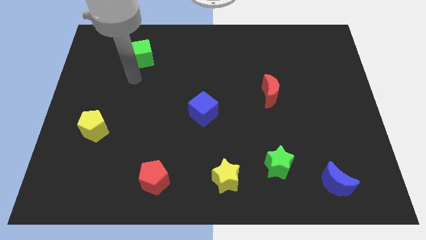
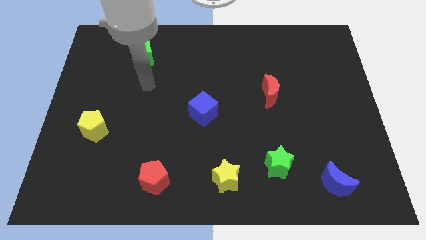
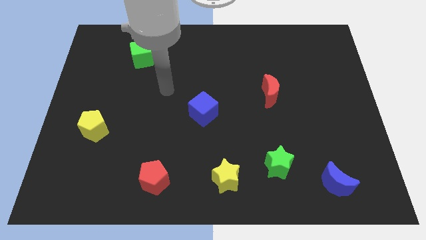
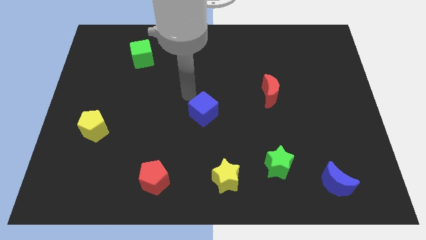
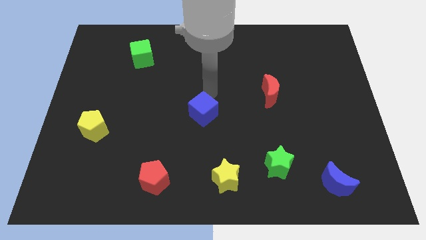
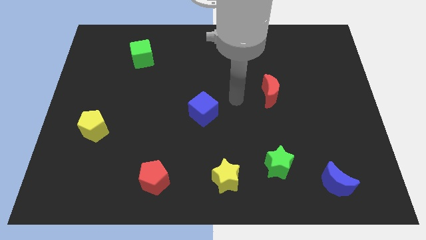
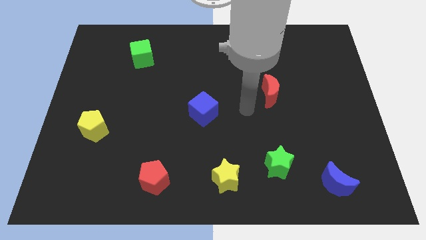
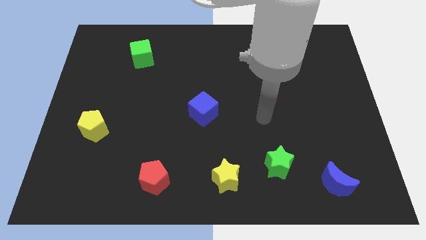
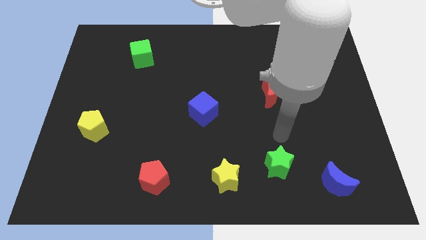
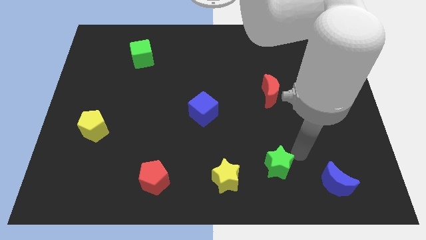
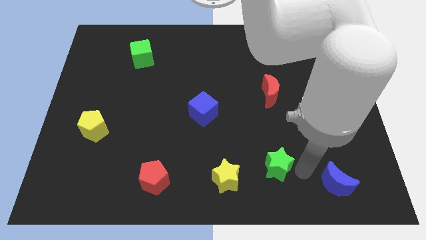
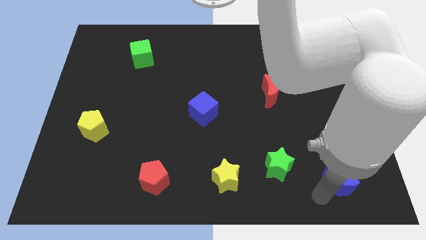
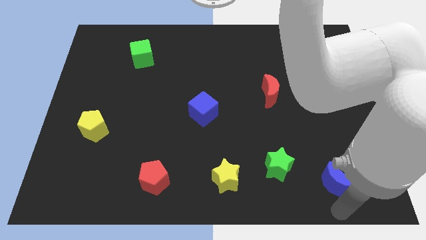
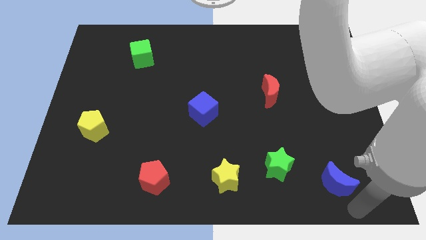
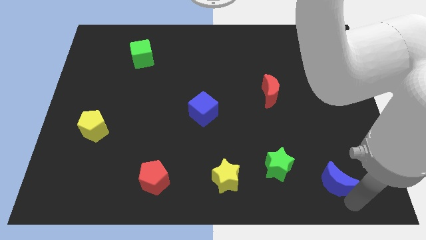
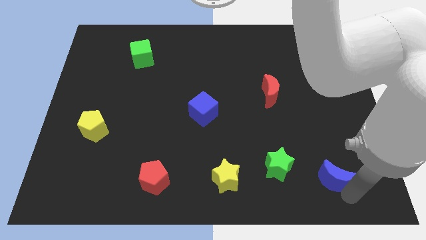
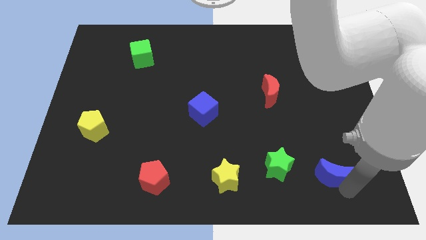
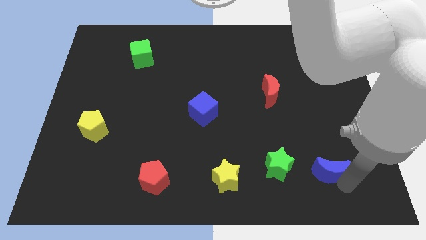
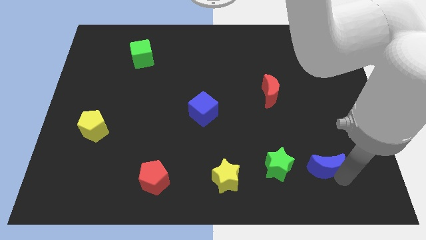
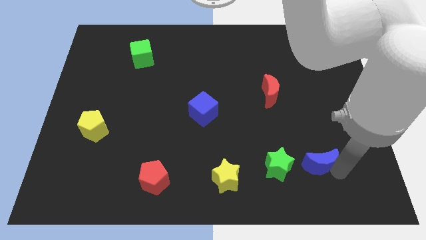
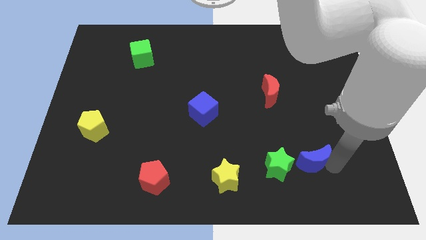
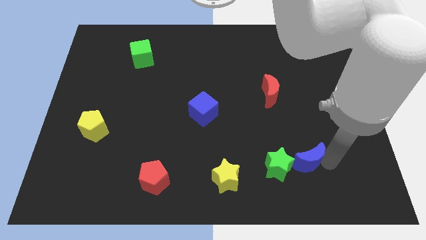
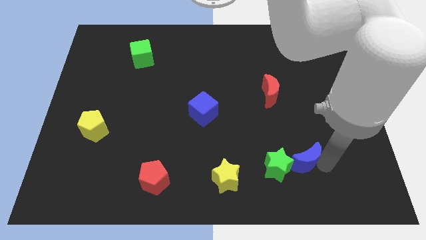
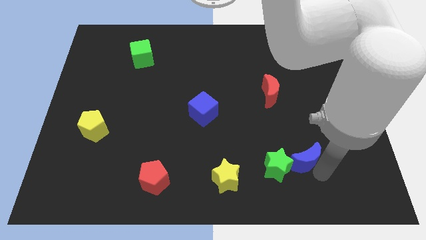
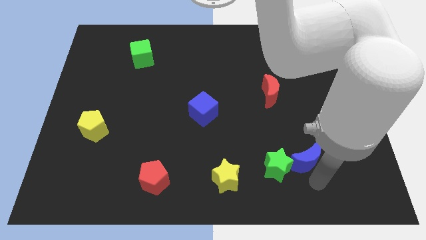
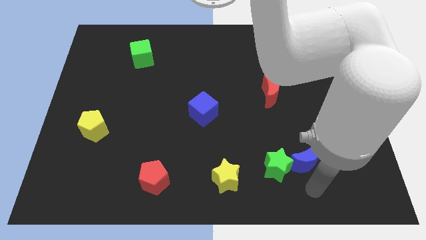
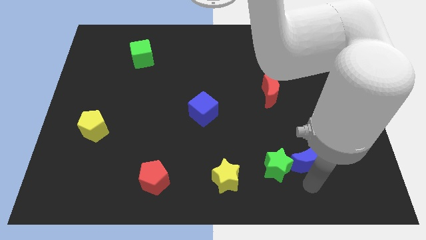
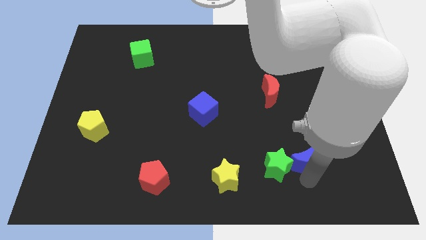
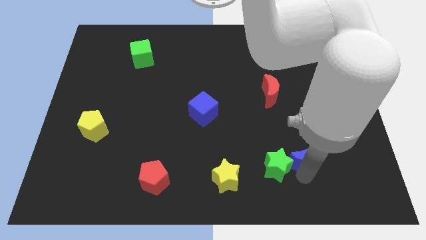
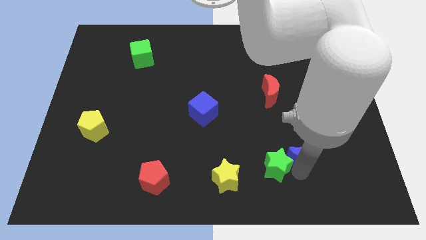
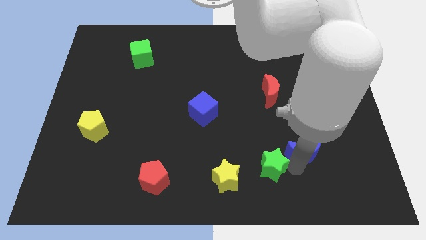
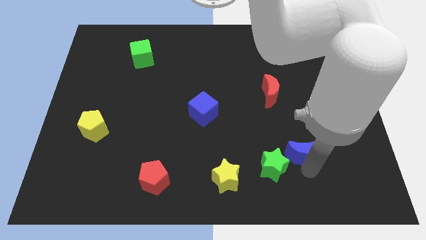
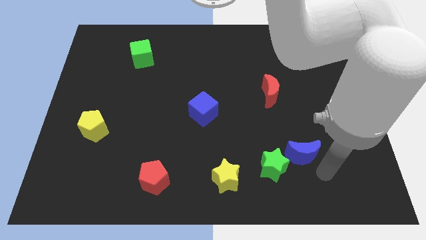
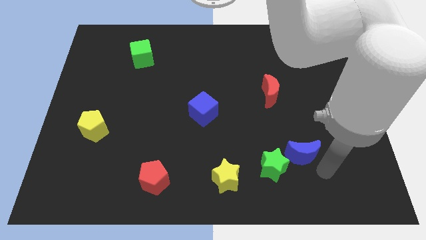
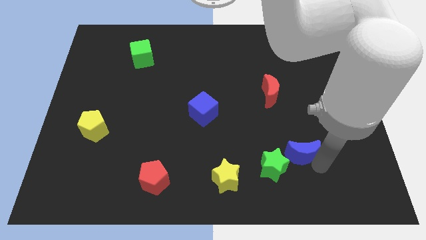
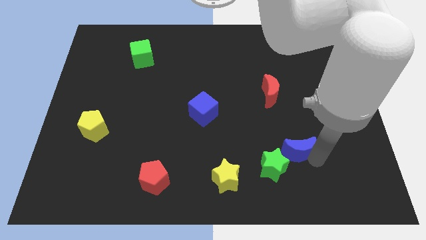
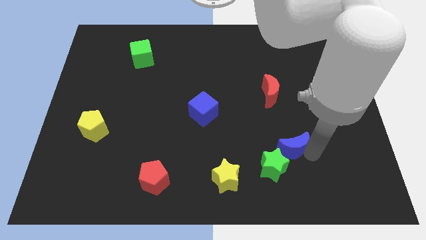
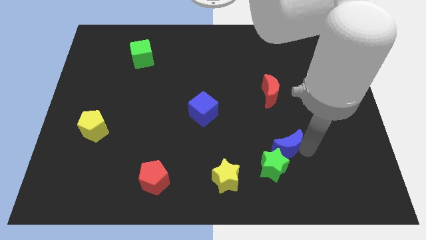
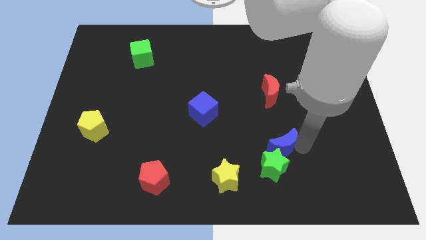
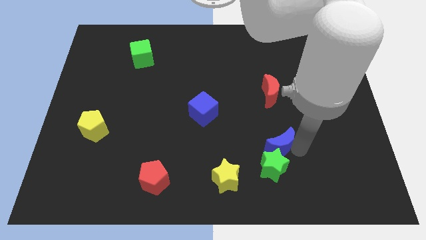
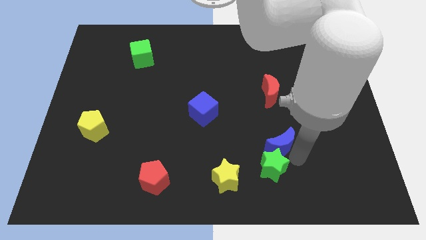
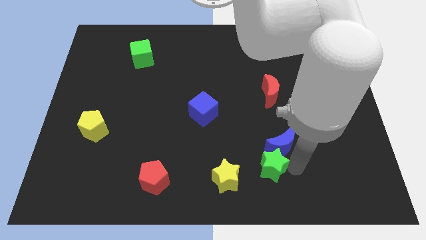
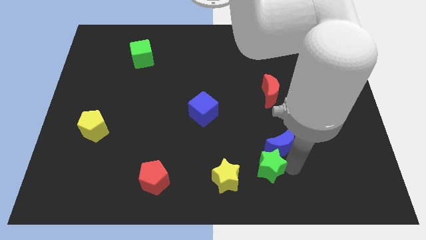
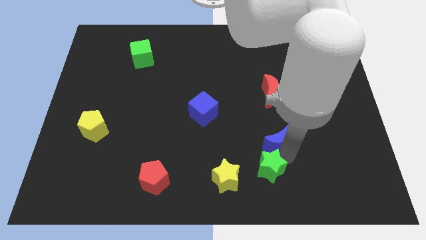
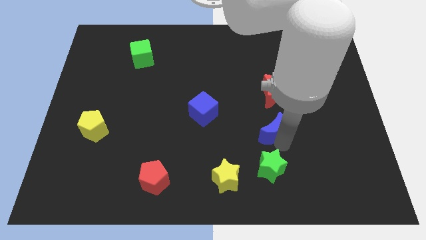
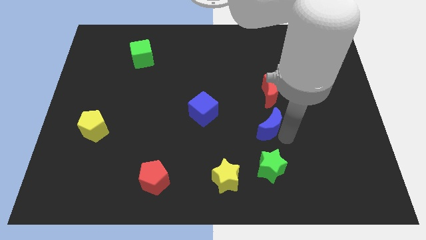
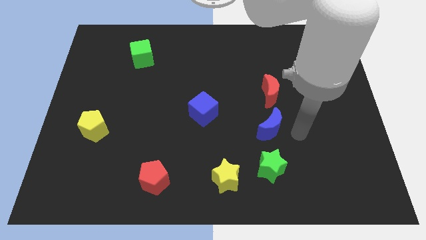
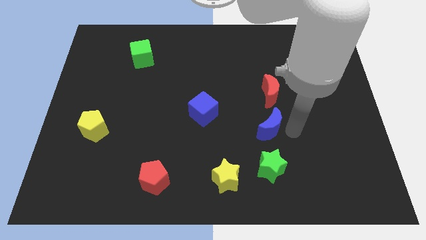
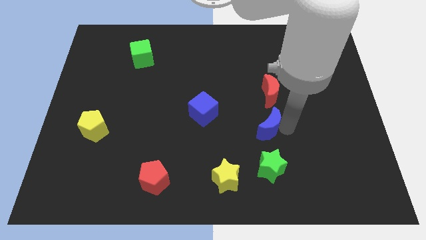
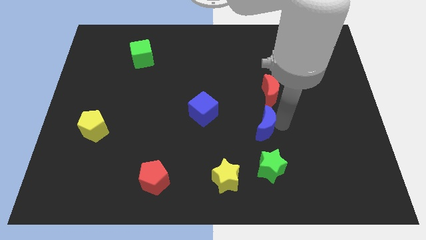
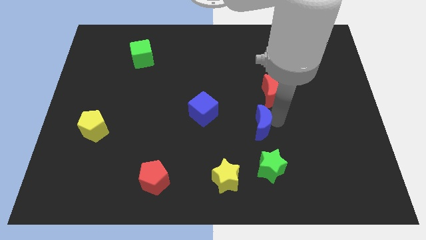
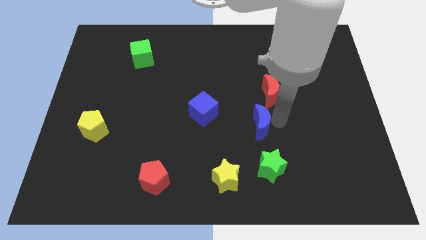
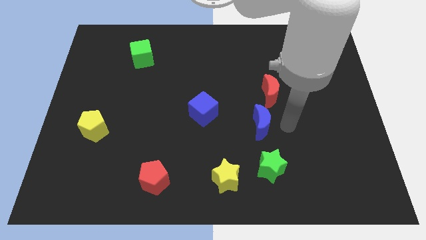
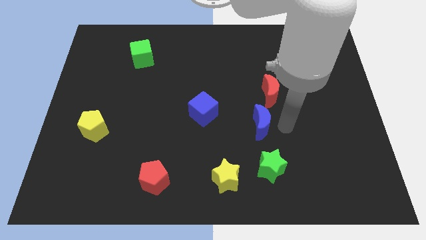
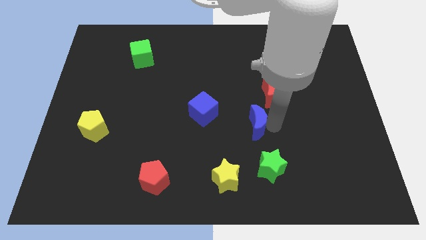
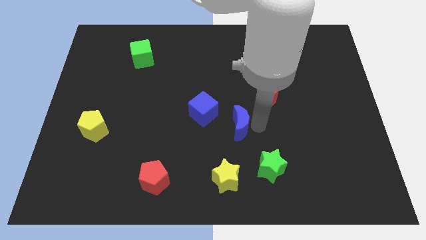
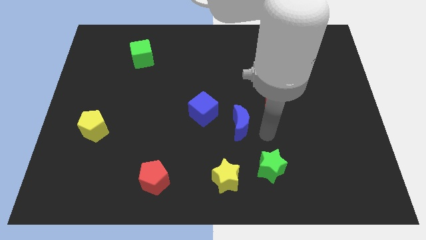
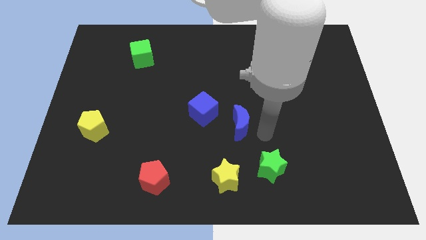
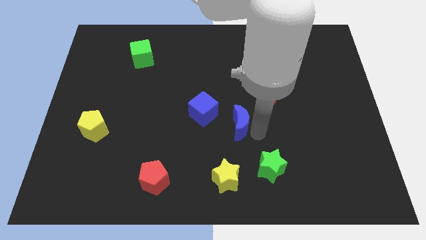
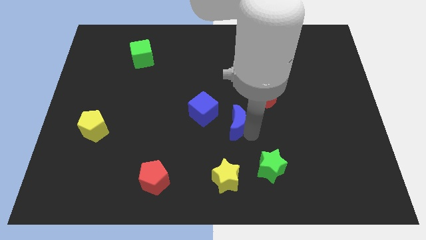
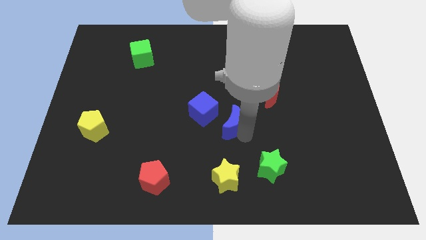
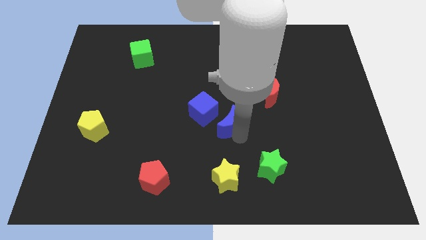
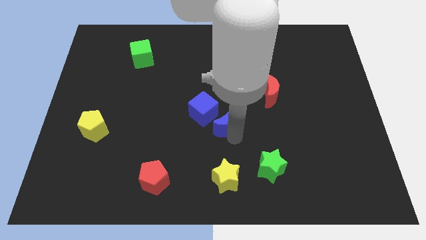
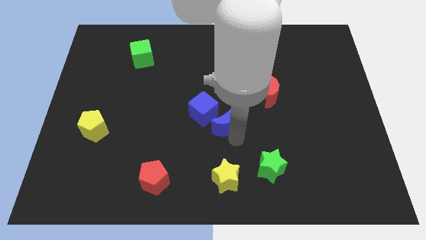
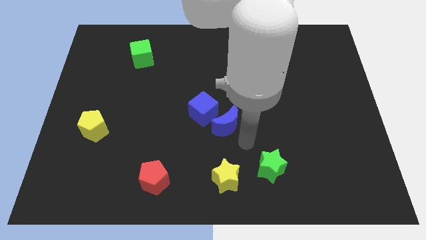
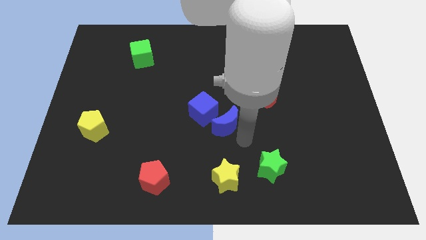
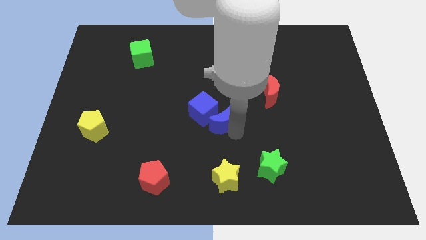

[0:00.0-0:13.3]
slide the blue moon next to the blue cube

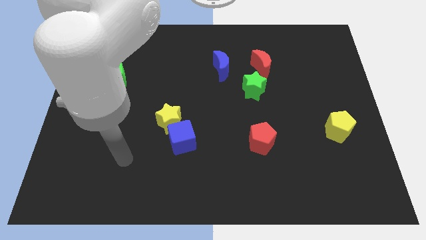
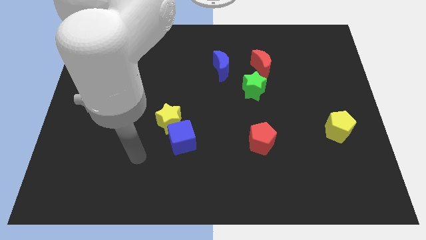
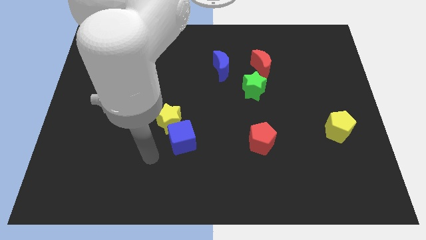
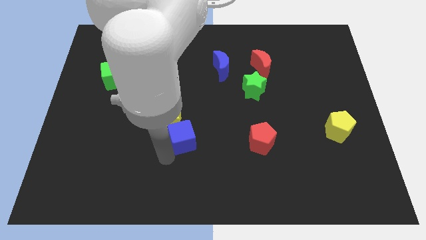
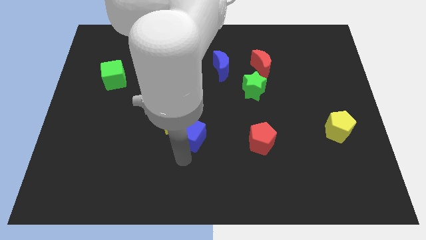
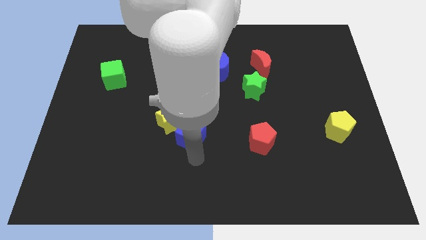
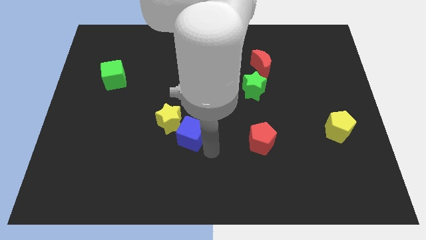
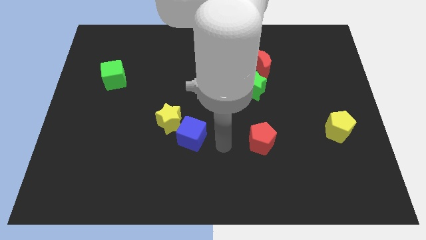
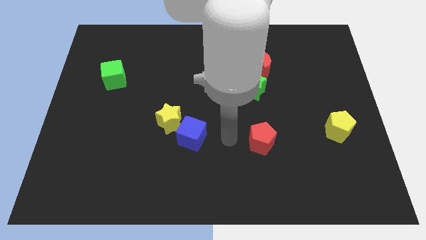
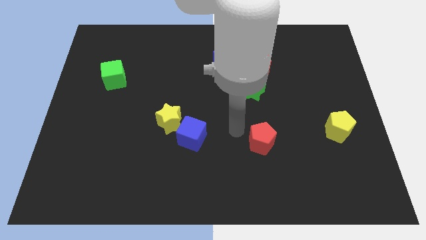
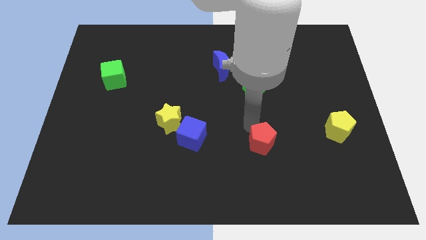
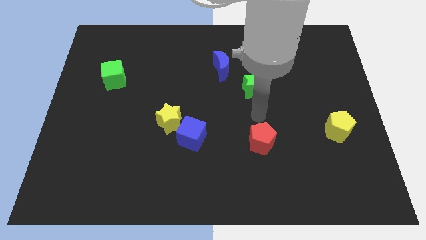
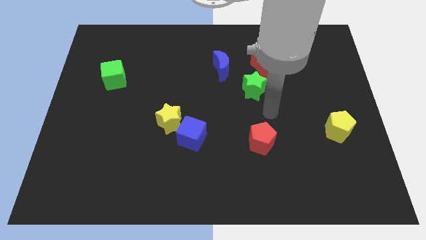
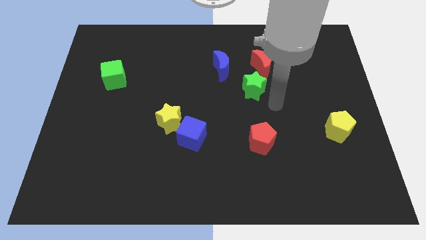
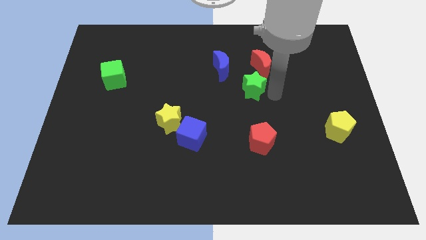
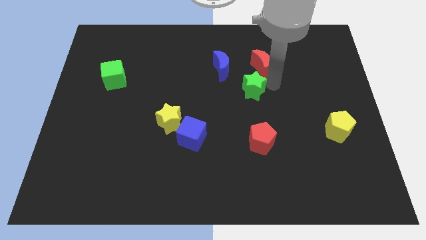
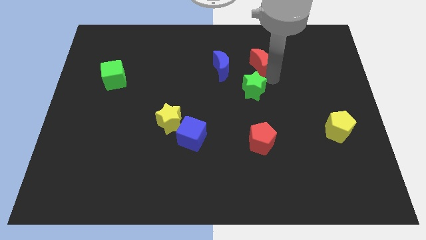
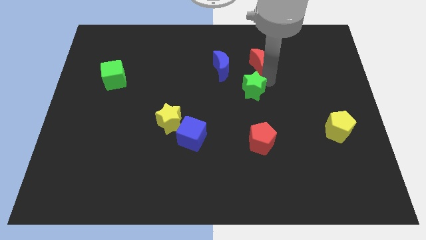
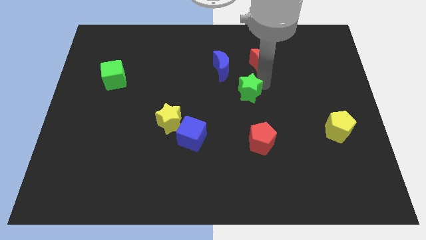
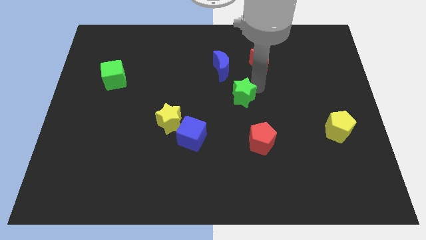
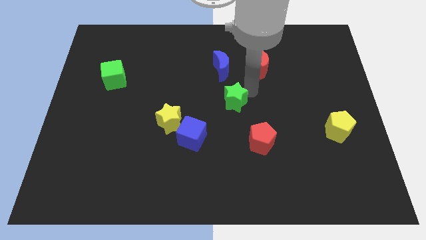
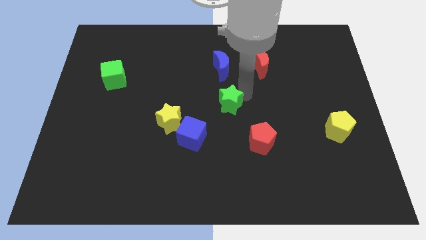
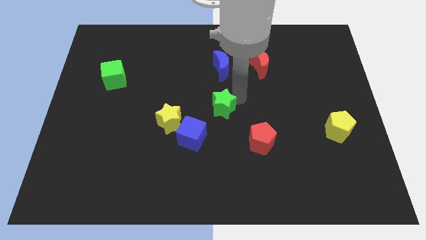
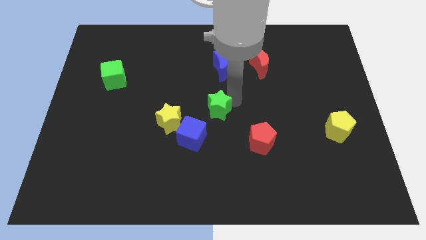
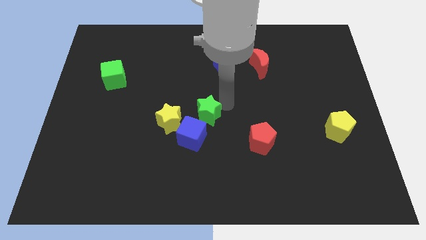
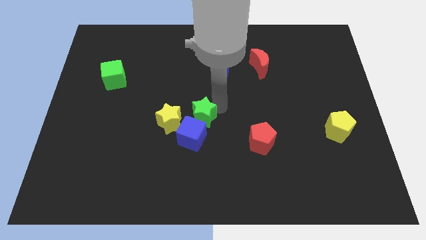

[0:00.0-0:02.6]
move the green star to the blue cube
